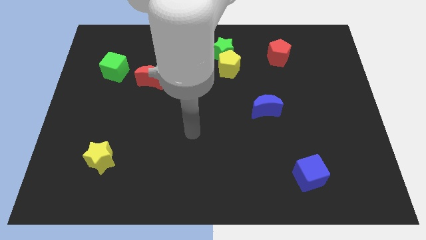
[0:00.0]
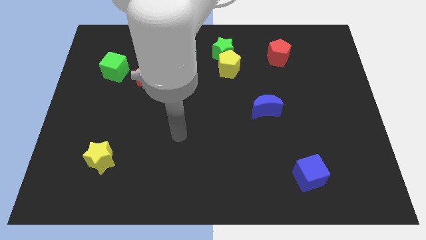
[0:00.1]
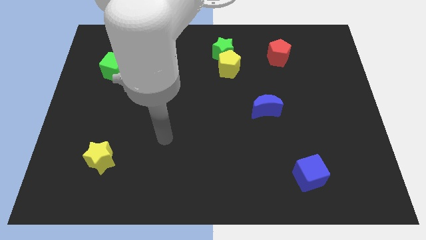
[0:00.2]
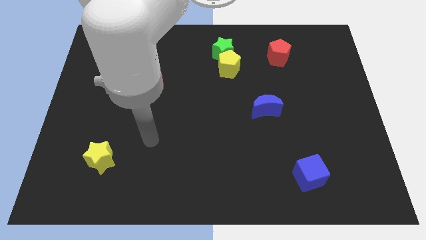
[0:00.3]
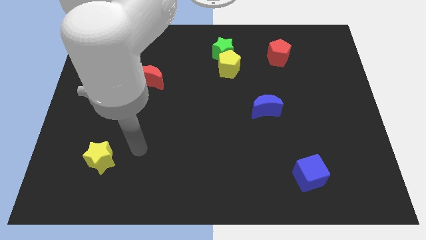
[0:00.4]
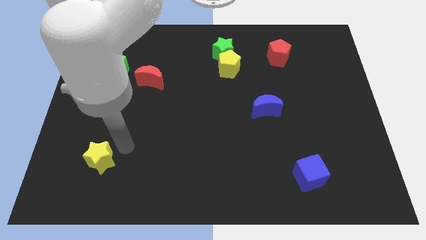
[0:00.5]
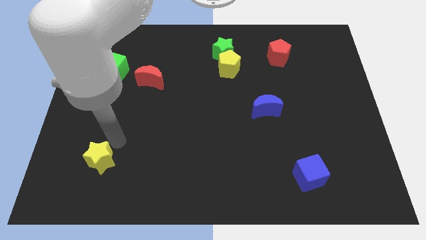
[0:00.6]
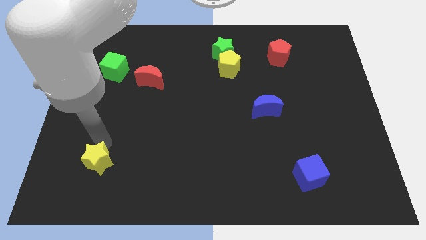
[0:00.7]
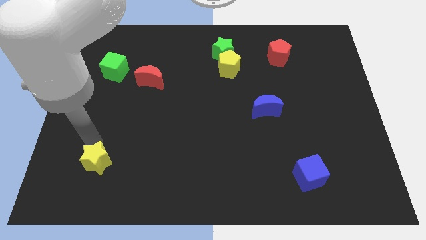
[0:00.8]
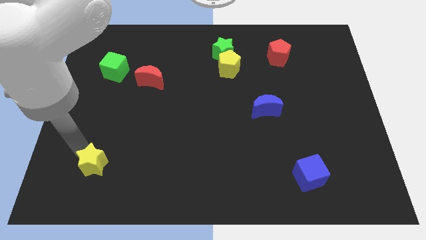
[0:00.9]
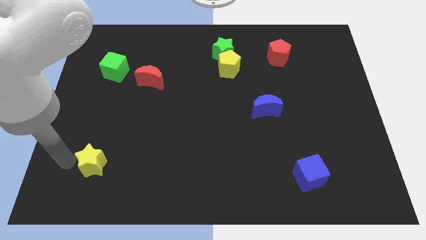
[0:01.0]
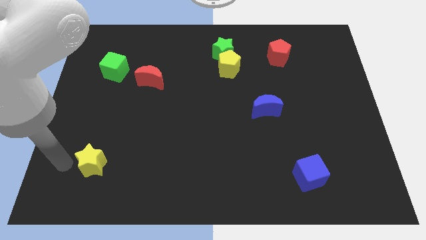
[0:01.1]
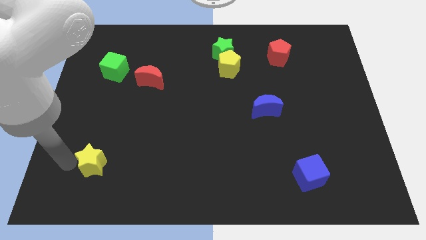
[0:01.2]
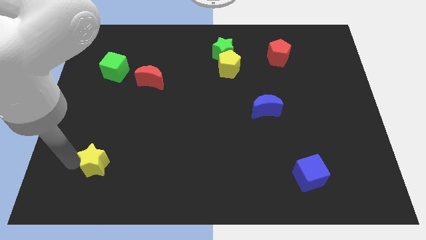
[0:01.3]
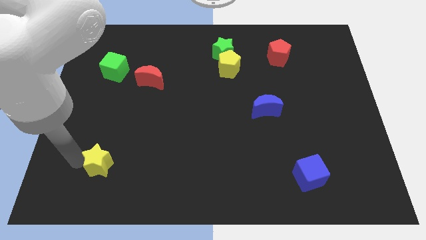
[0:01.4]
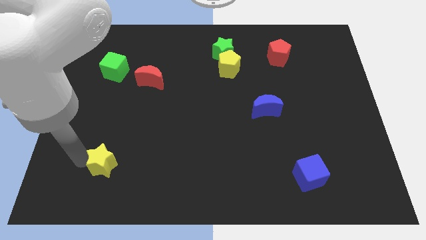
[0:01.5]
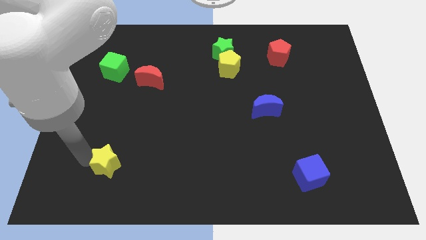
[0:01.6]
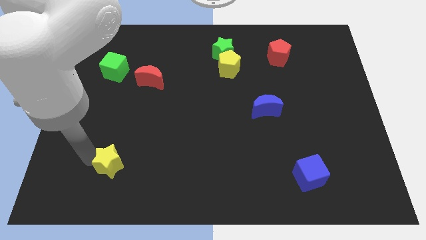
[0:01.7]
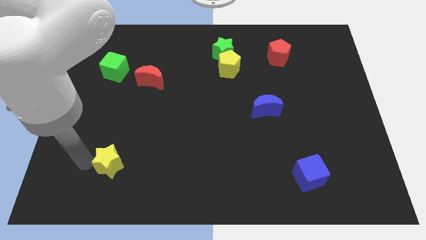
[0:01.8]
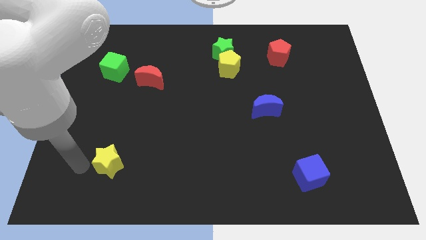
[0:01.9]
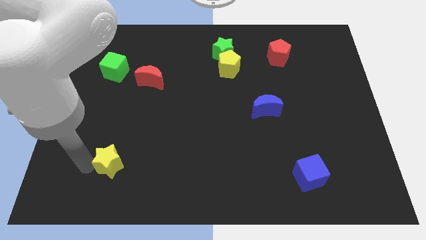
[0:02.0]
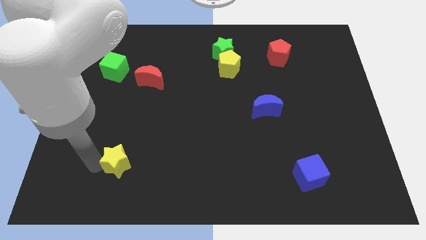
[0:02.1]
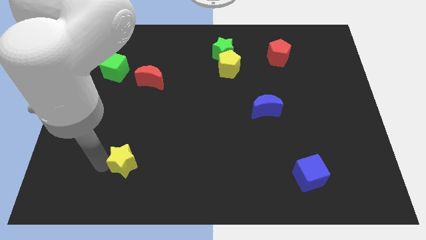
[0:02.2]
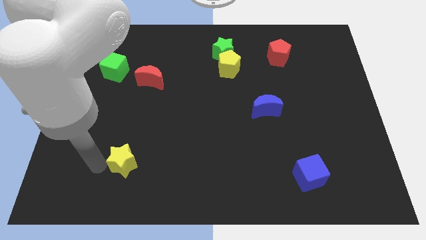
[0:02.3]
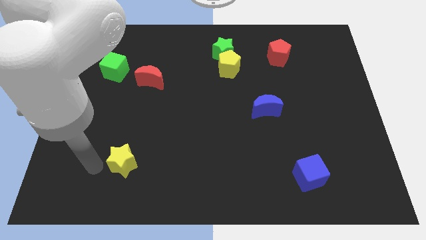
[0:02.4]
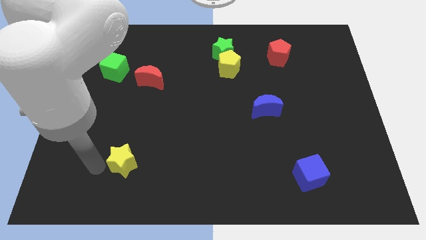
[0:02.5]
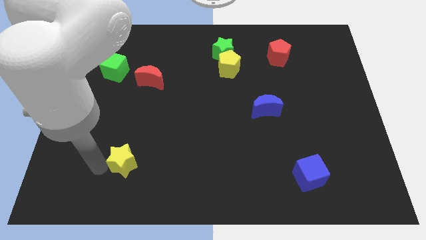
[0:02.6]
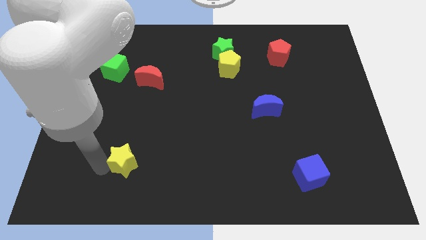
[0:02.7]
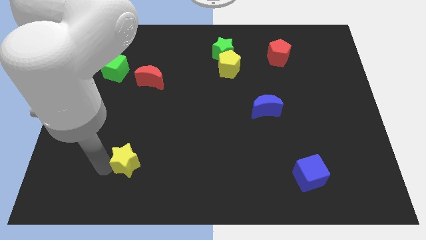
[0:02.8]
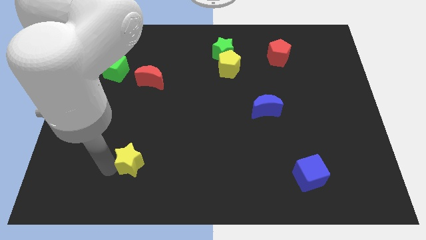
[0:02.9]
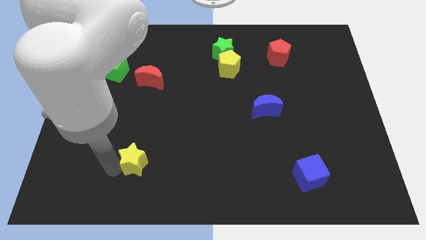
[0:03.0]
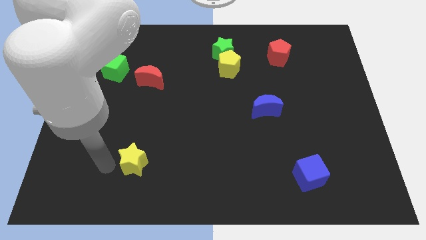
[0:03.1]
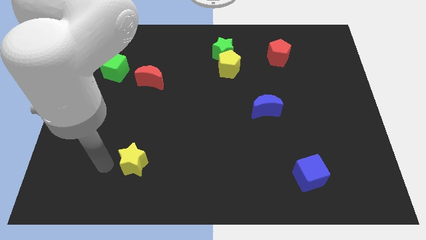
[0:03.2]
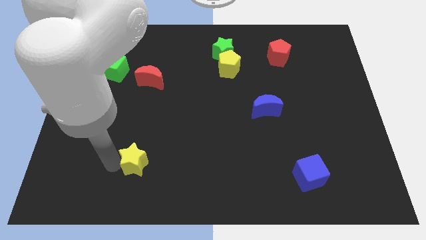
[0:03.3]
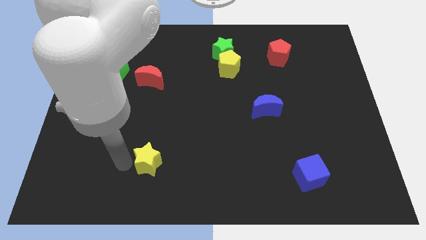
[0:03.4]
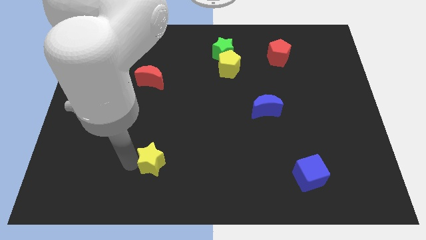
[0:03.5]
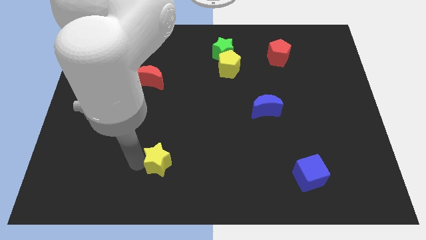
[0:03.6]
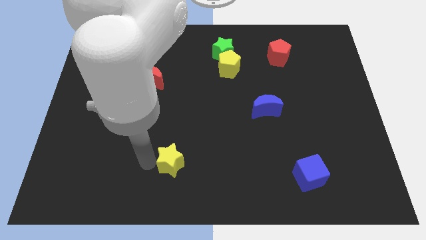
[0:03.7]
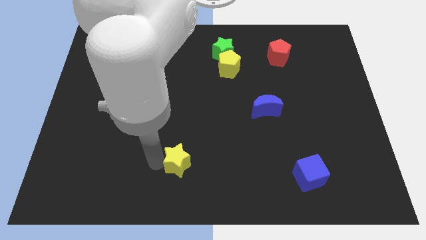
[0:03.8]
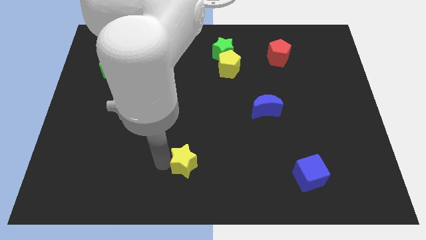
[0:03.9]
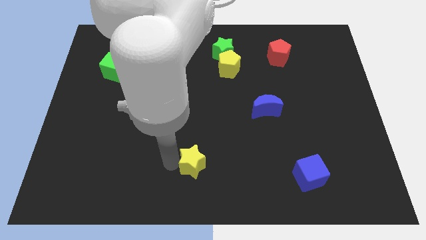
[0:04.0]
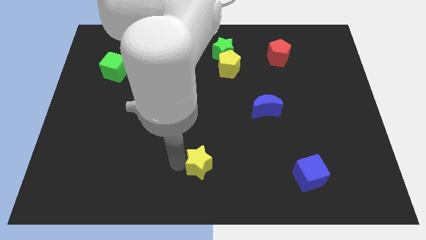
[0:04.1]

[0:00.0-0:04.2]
push the yellow star to the right

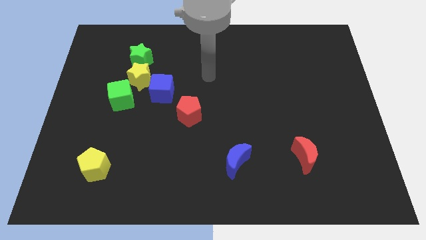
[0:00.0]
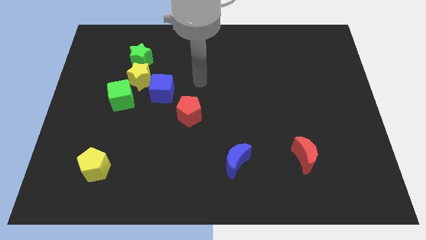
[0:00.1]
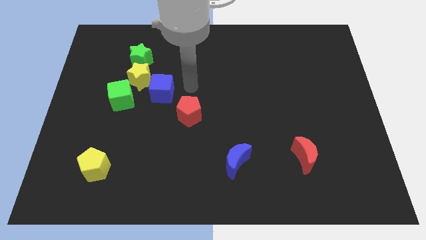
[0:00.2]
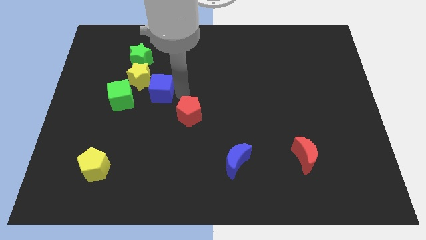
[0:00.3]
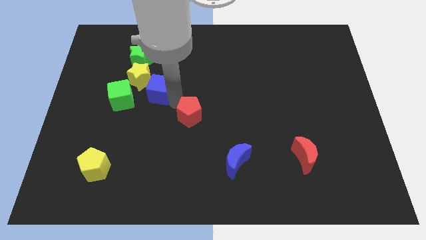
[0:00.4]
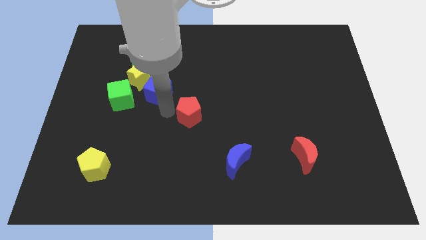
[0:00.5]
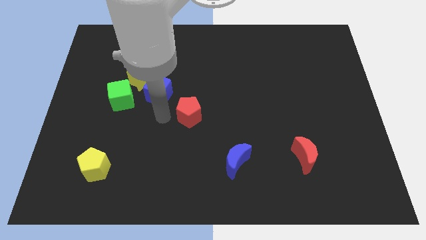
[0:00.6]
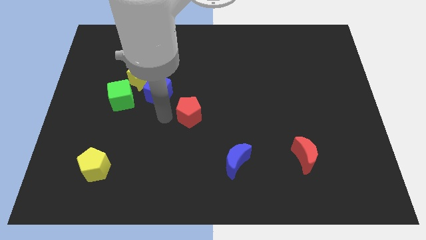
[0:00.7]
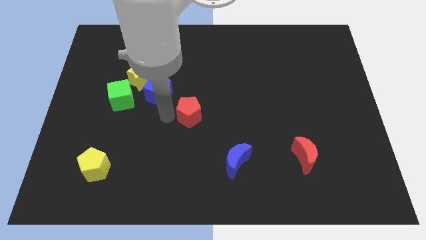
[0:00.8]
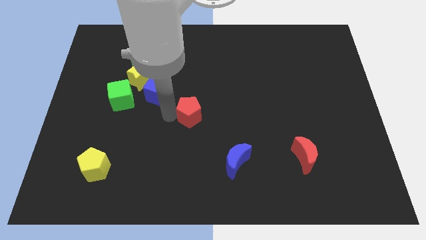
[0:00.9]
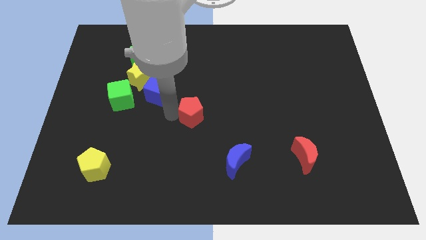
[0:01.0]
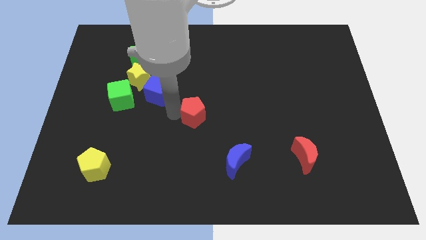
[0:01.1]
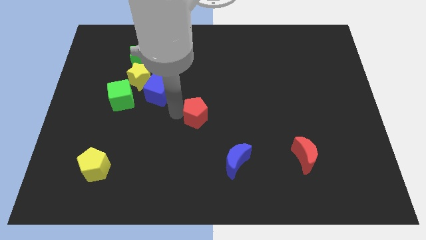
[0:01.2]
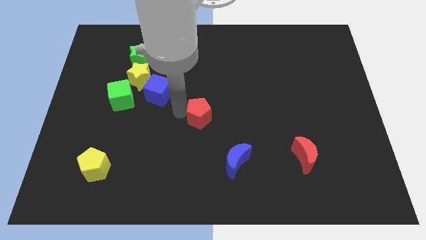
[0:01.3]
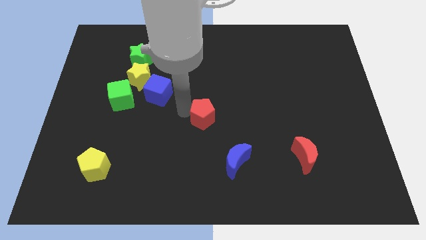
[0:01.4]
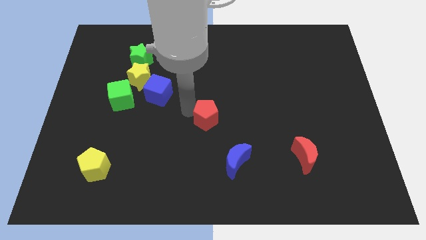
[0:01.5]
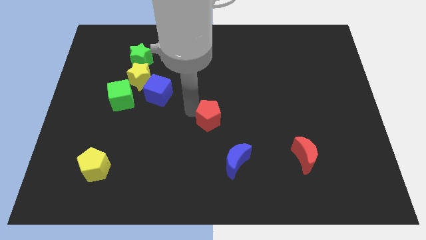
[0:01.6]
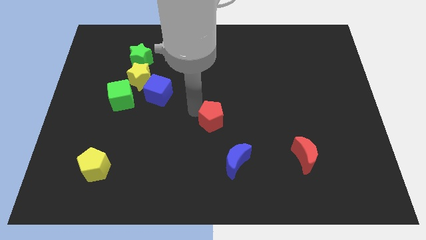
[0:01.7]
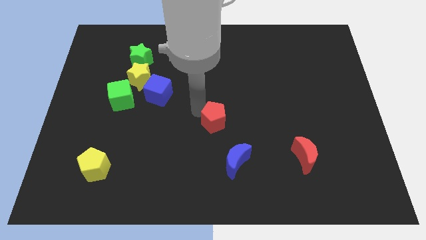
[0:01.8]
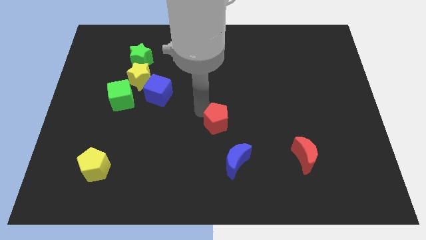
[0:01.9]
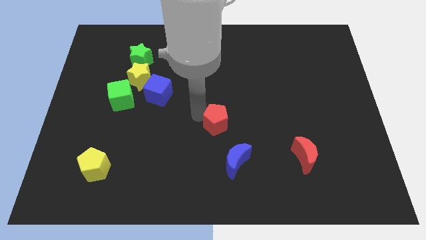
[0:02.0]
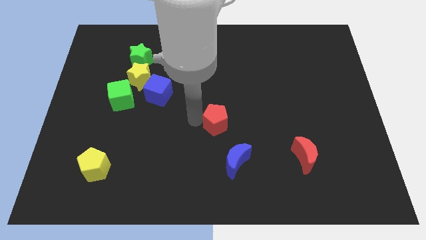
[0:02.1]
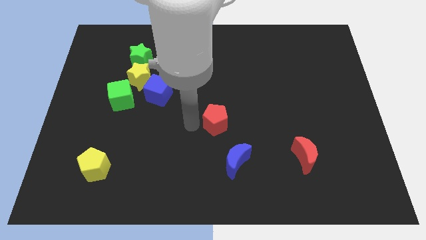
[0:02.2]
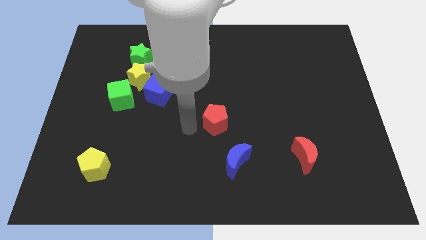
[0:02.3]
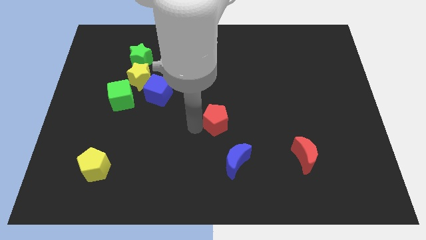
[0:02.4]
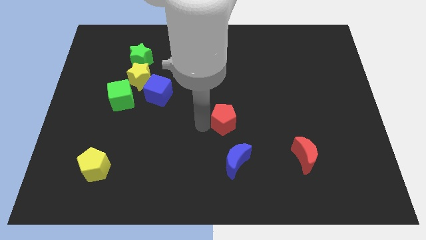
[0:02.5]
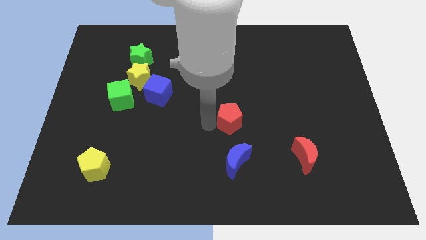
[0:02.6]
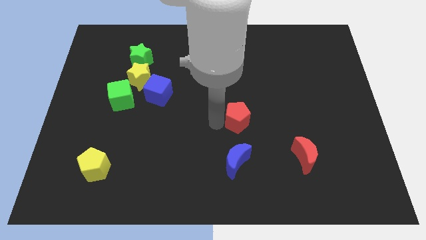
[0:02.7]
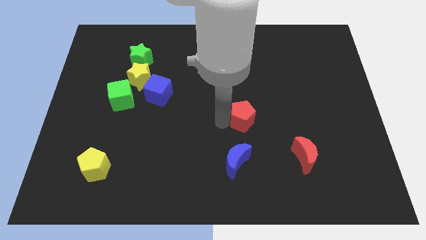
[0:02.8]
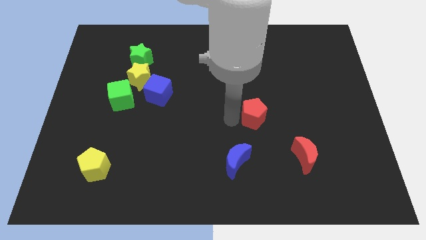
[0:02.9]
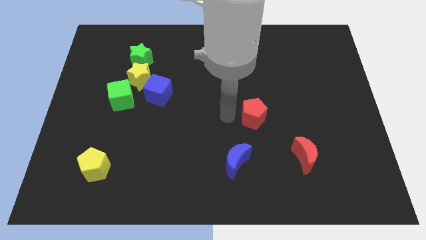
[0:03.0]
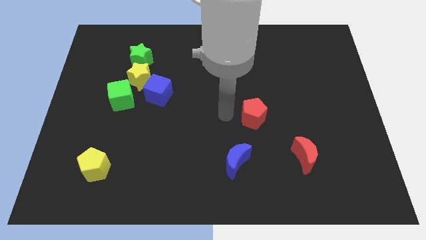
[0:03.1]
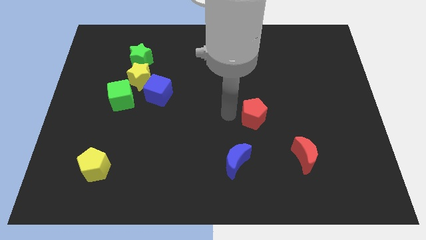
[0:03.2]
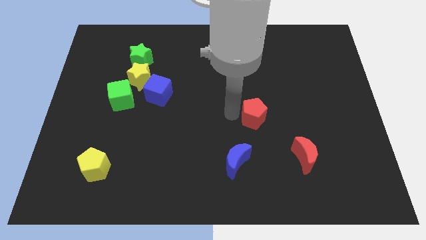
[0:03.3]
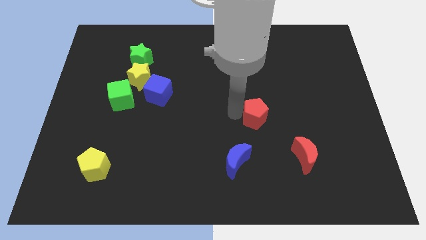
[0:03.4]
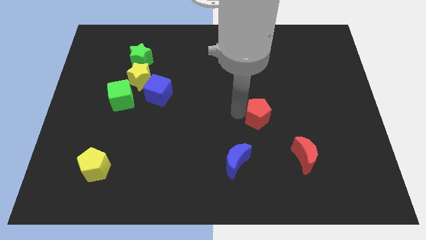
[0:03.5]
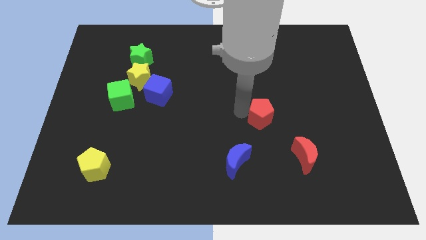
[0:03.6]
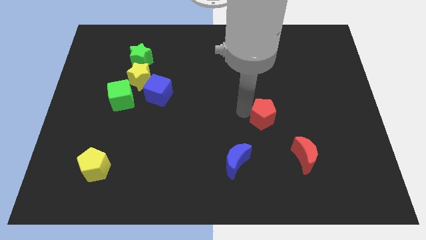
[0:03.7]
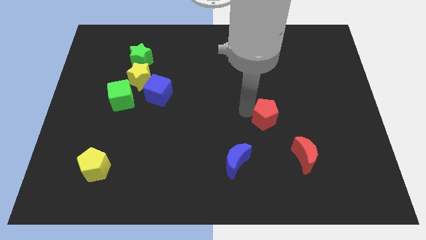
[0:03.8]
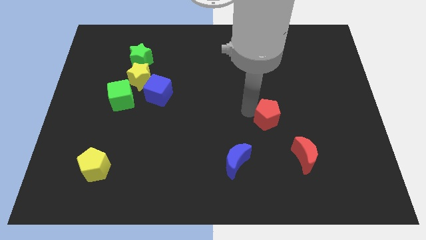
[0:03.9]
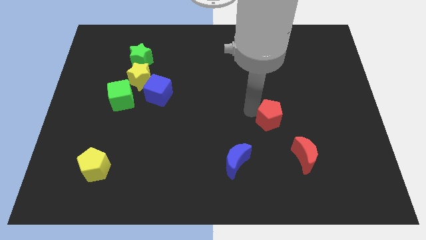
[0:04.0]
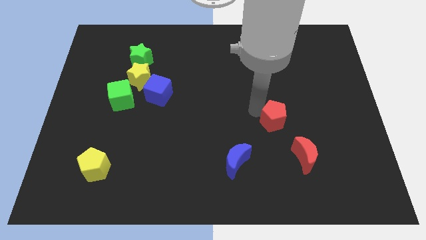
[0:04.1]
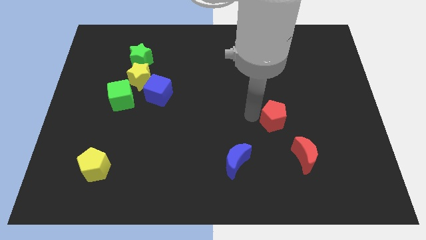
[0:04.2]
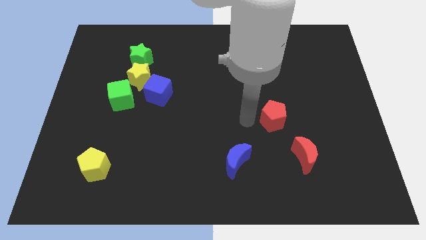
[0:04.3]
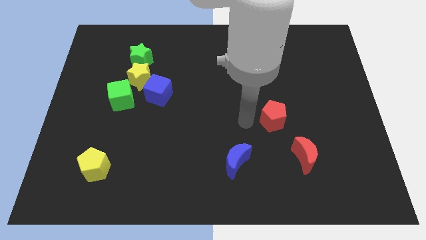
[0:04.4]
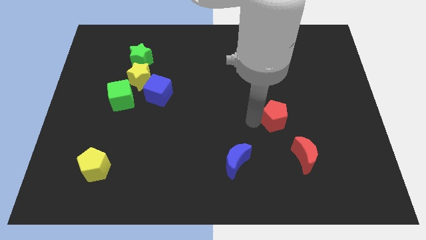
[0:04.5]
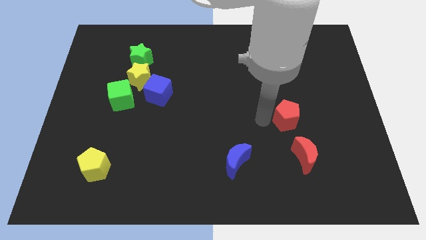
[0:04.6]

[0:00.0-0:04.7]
push the red pentagon to the right
